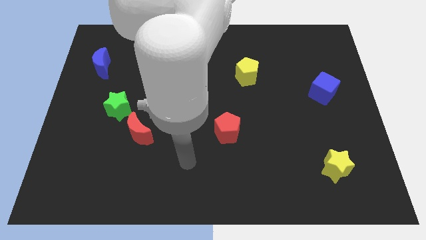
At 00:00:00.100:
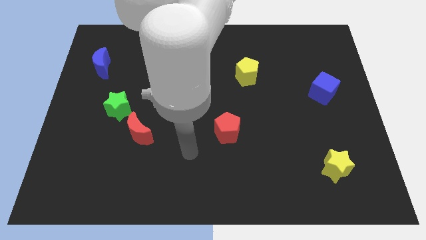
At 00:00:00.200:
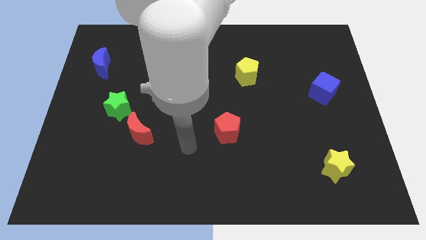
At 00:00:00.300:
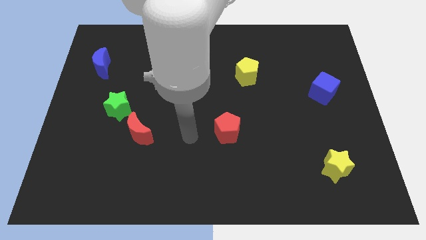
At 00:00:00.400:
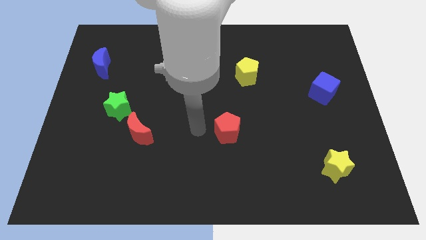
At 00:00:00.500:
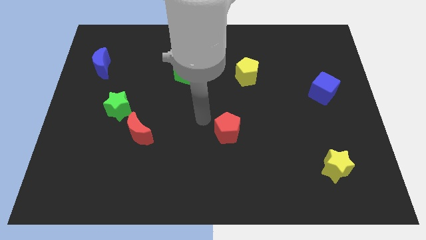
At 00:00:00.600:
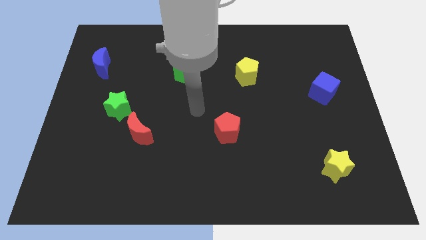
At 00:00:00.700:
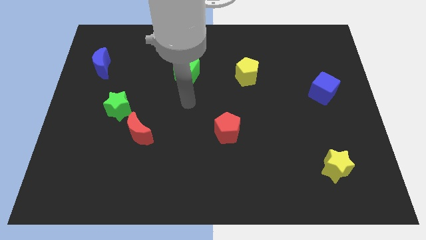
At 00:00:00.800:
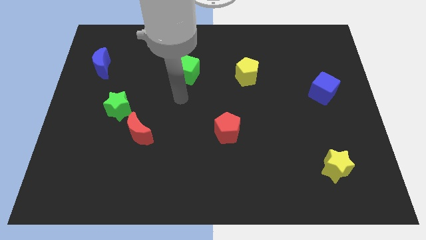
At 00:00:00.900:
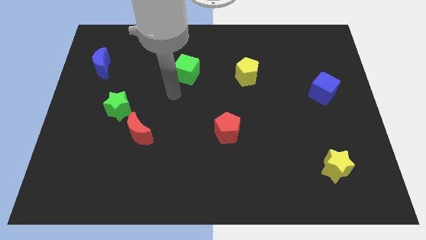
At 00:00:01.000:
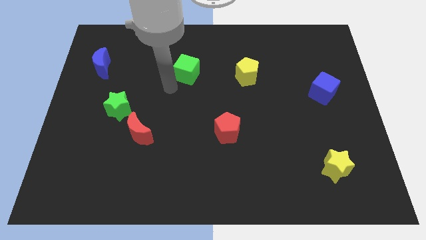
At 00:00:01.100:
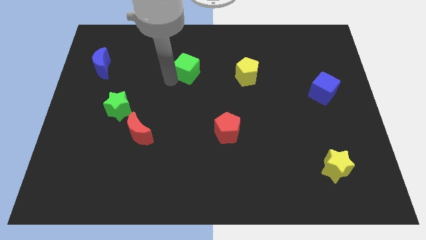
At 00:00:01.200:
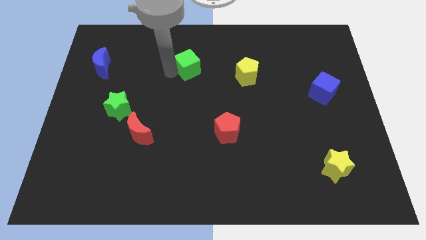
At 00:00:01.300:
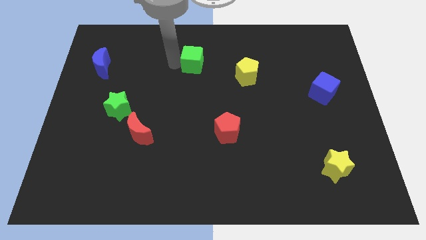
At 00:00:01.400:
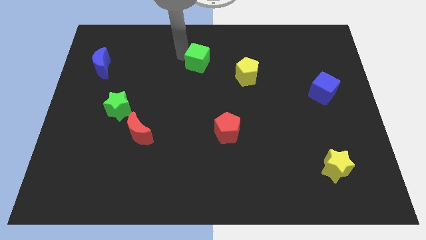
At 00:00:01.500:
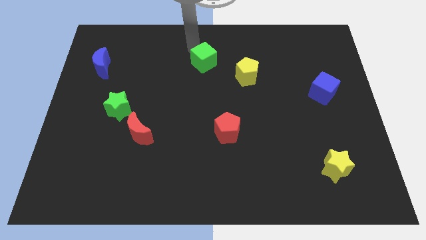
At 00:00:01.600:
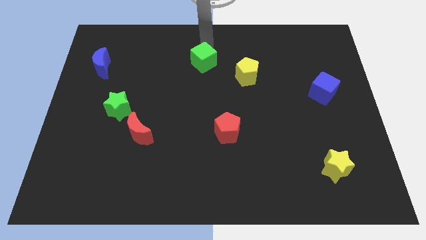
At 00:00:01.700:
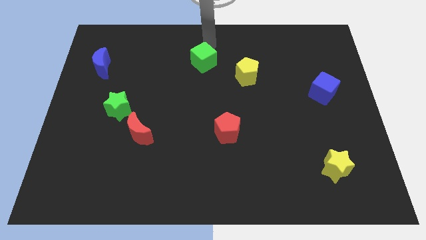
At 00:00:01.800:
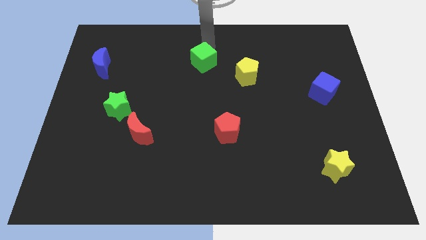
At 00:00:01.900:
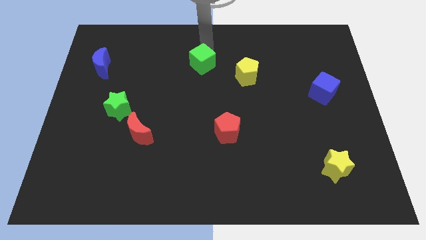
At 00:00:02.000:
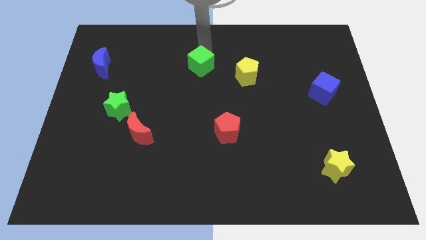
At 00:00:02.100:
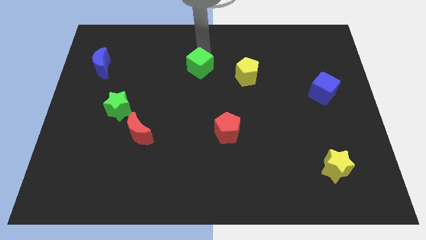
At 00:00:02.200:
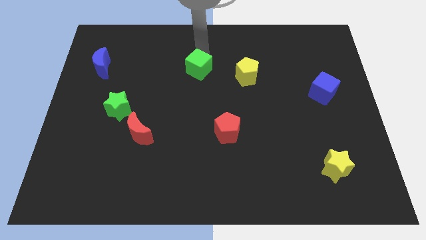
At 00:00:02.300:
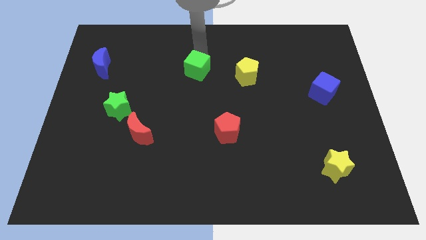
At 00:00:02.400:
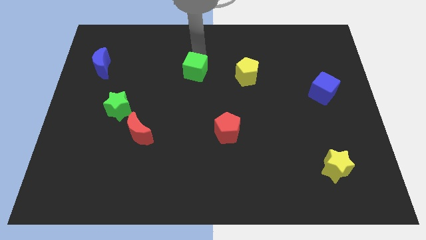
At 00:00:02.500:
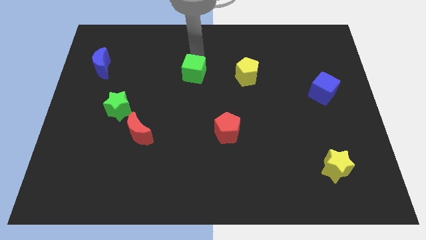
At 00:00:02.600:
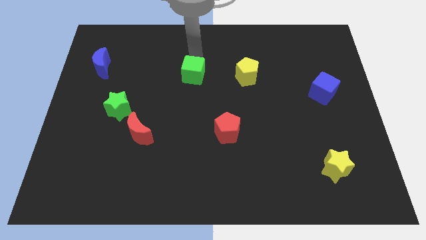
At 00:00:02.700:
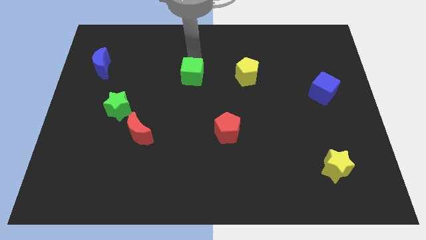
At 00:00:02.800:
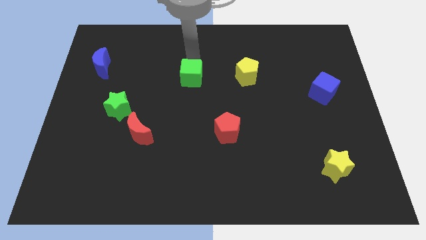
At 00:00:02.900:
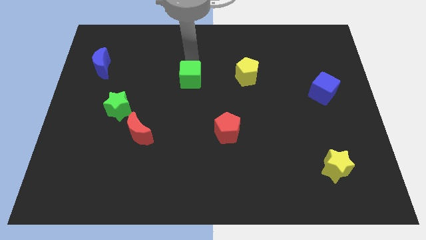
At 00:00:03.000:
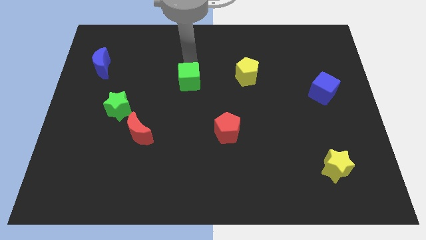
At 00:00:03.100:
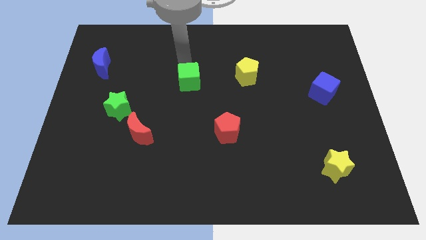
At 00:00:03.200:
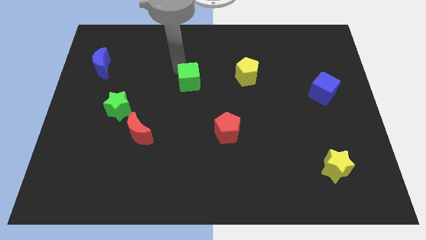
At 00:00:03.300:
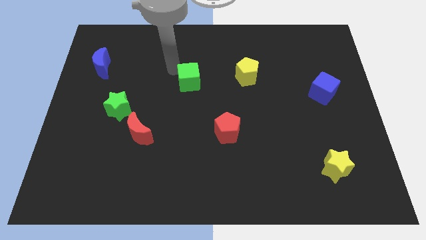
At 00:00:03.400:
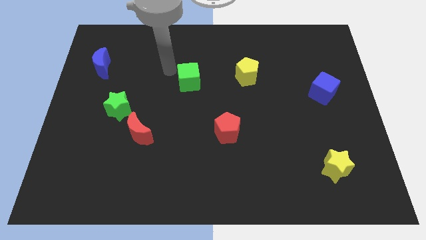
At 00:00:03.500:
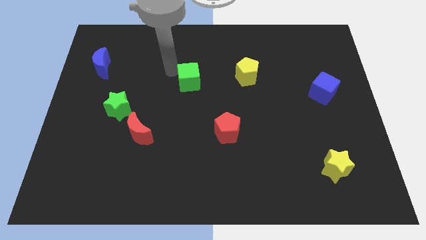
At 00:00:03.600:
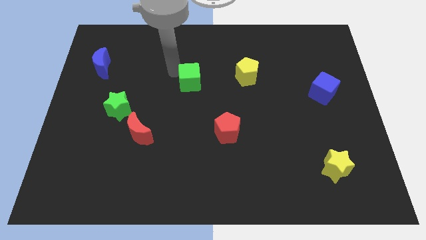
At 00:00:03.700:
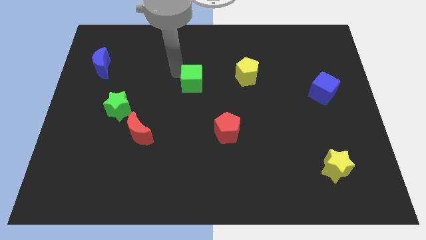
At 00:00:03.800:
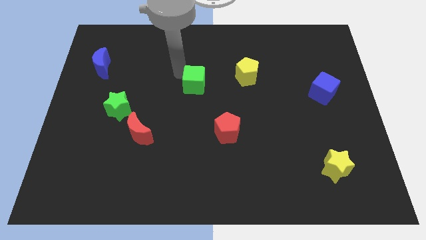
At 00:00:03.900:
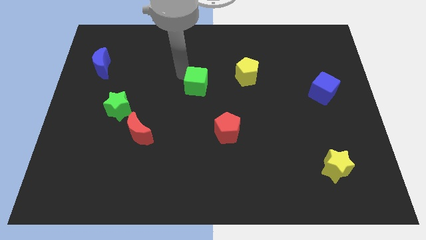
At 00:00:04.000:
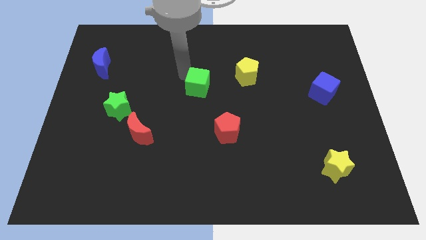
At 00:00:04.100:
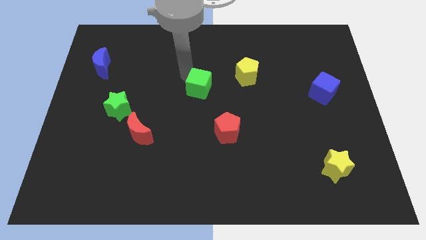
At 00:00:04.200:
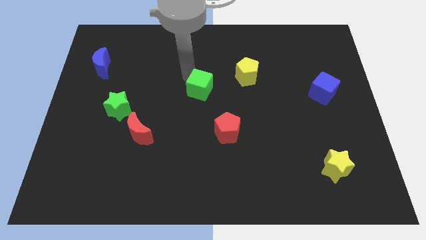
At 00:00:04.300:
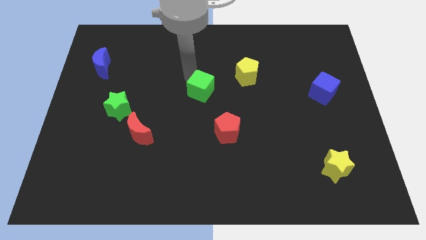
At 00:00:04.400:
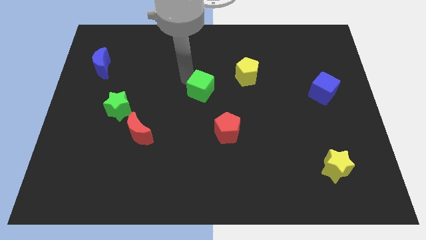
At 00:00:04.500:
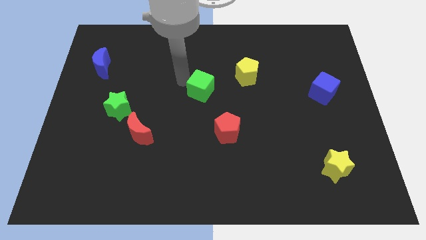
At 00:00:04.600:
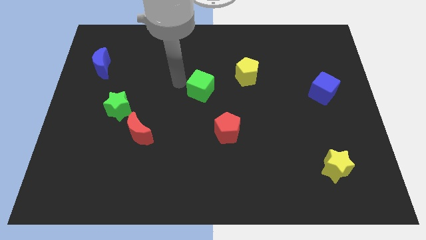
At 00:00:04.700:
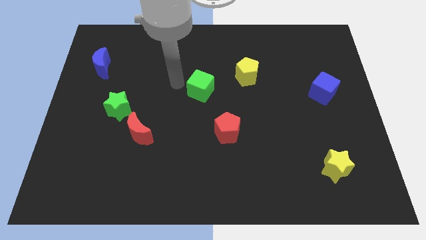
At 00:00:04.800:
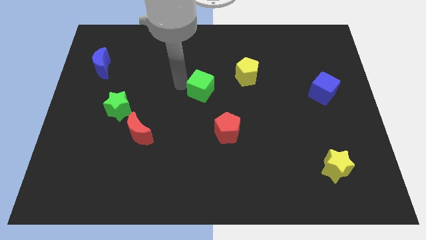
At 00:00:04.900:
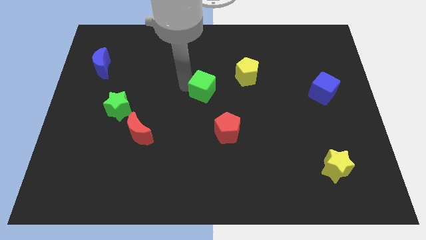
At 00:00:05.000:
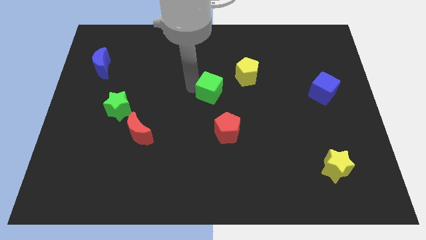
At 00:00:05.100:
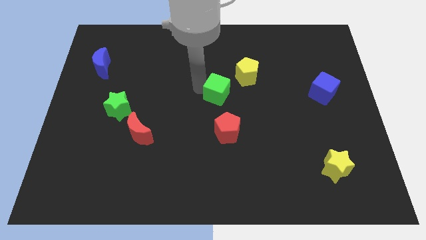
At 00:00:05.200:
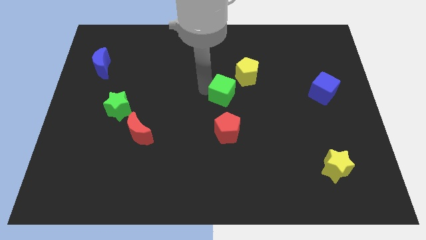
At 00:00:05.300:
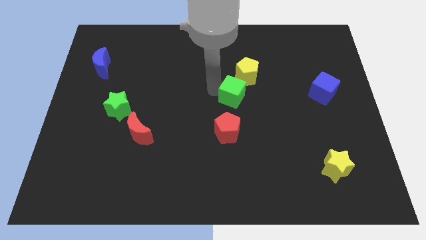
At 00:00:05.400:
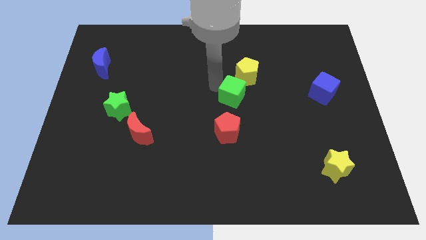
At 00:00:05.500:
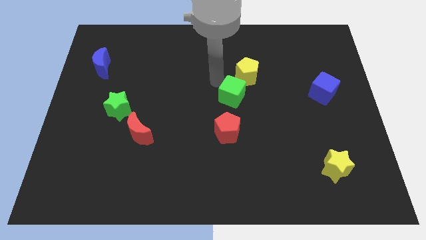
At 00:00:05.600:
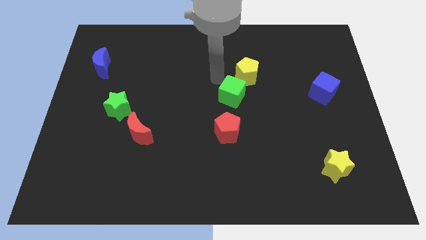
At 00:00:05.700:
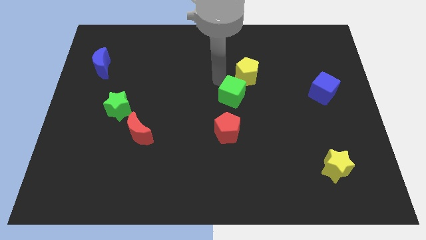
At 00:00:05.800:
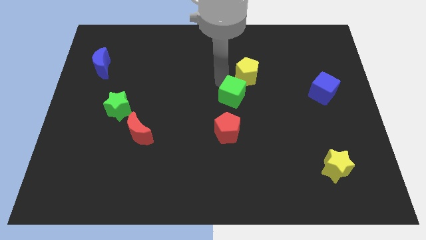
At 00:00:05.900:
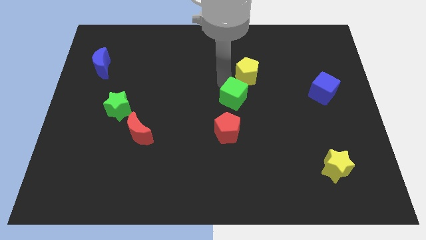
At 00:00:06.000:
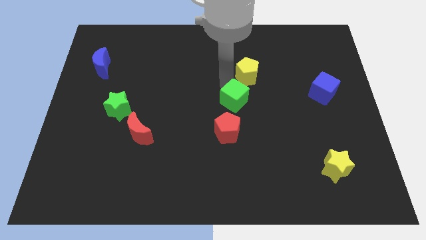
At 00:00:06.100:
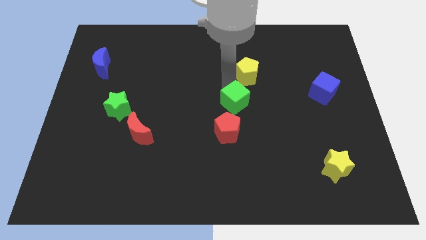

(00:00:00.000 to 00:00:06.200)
slide the green cube to the top right side of the red pentagon

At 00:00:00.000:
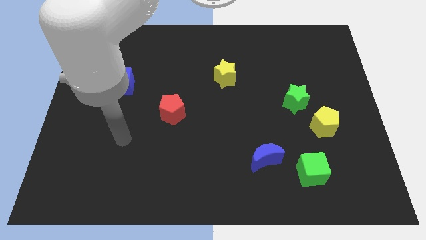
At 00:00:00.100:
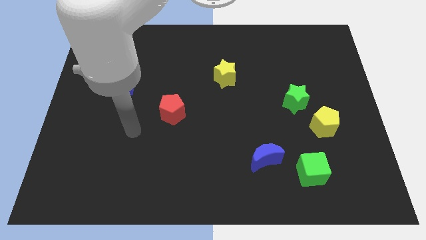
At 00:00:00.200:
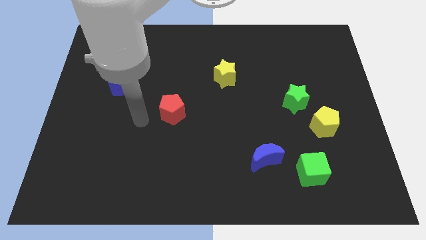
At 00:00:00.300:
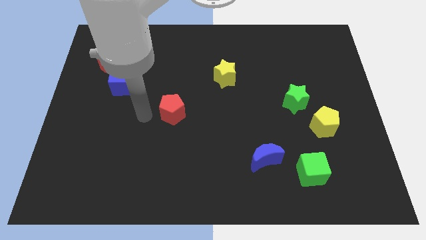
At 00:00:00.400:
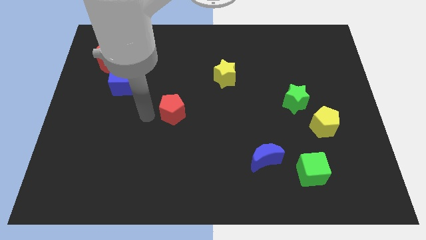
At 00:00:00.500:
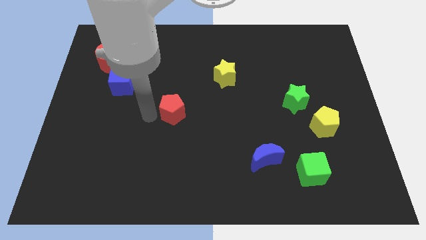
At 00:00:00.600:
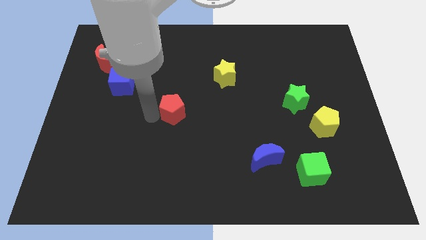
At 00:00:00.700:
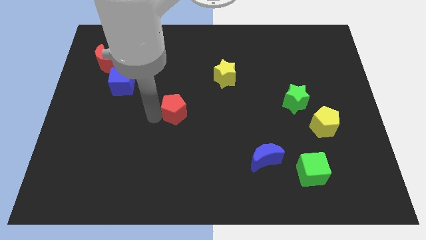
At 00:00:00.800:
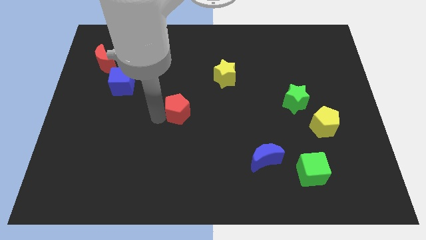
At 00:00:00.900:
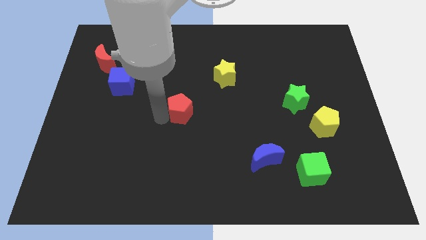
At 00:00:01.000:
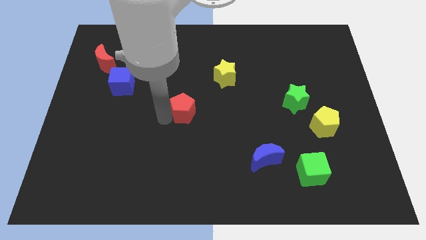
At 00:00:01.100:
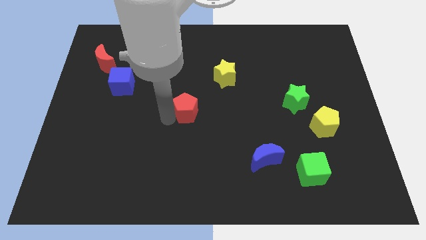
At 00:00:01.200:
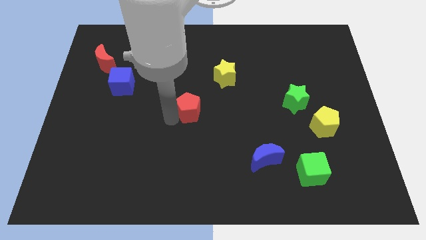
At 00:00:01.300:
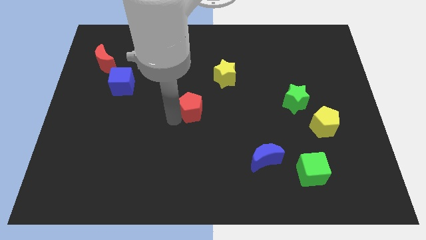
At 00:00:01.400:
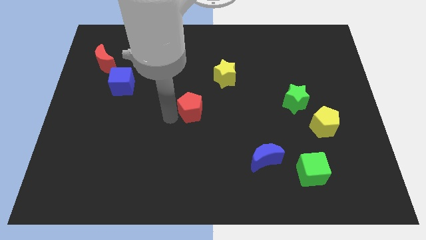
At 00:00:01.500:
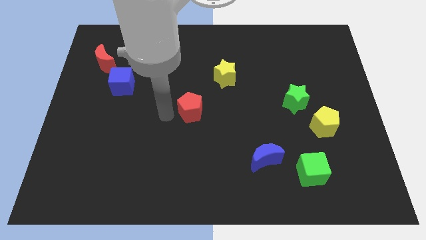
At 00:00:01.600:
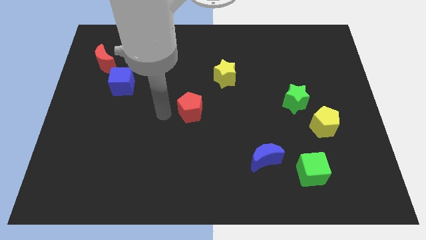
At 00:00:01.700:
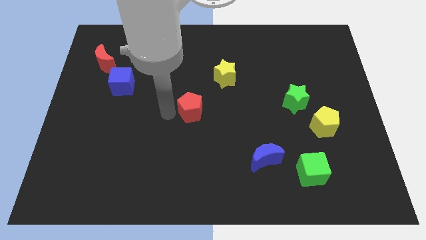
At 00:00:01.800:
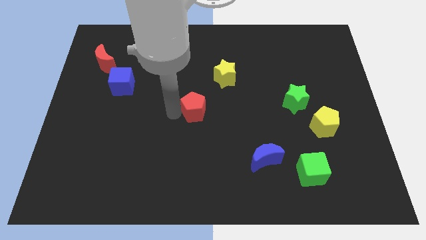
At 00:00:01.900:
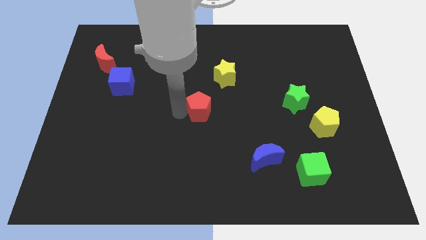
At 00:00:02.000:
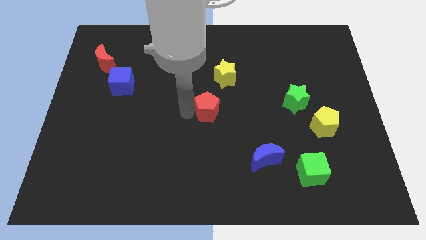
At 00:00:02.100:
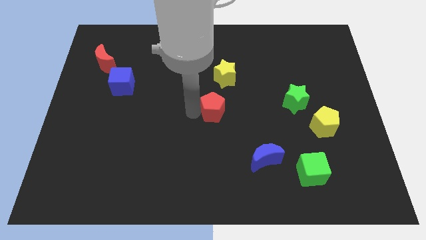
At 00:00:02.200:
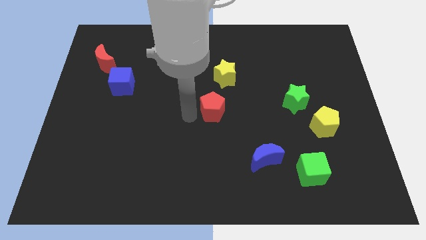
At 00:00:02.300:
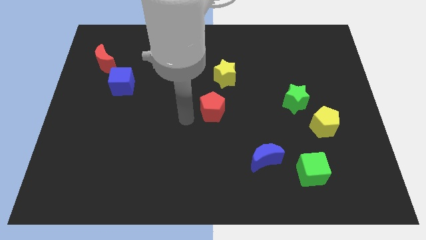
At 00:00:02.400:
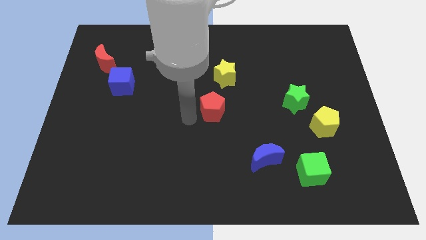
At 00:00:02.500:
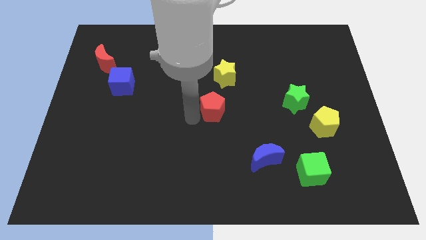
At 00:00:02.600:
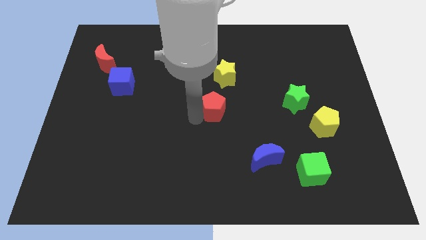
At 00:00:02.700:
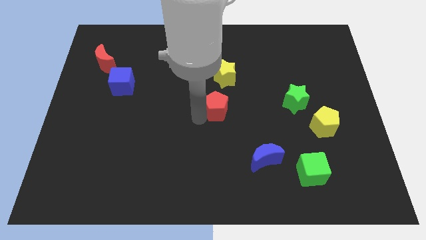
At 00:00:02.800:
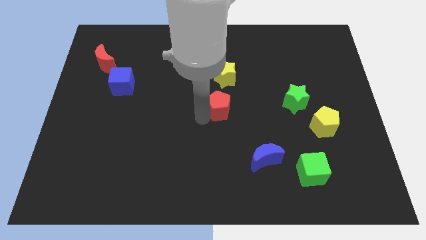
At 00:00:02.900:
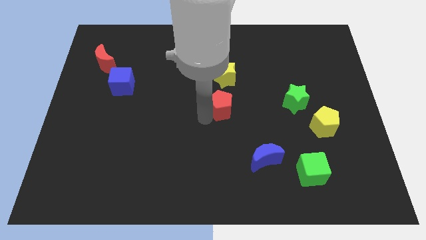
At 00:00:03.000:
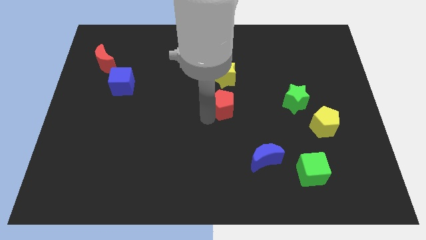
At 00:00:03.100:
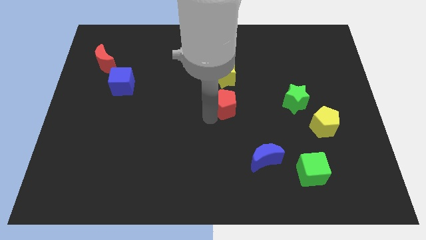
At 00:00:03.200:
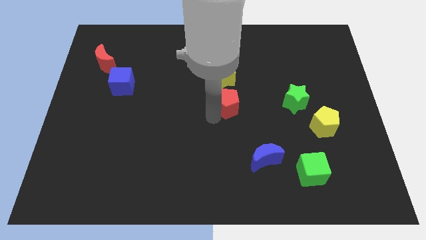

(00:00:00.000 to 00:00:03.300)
slide the red pentagon to the left of the green star
